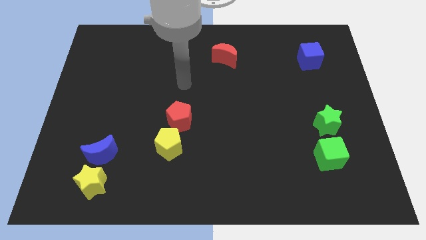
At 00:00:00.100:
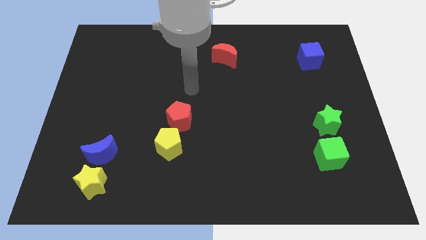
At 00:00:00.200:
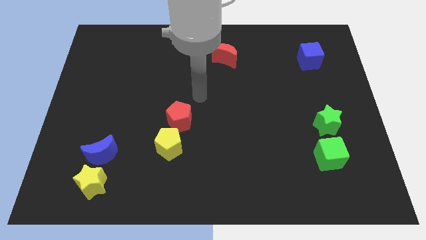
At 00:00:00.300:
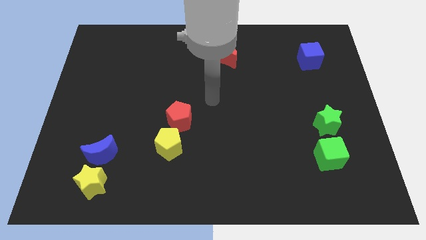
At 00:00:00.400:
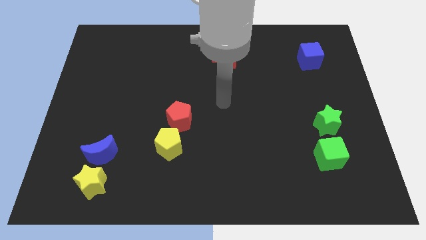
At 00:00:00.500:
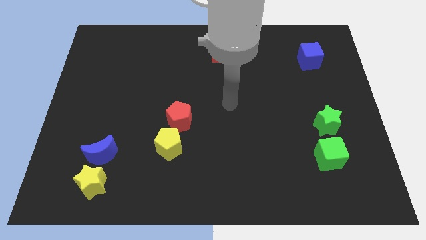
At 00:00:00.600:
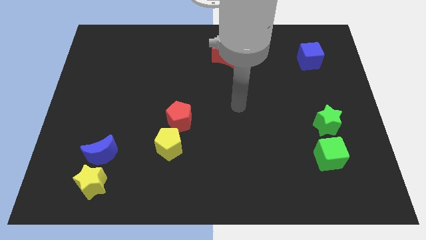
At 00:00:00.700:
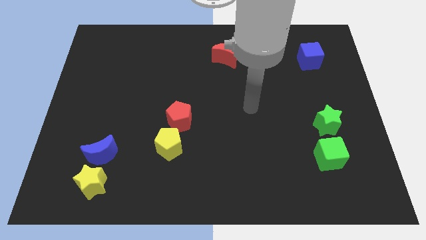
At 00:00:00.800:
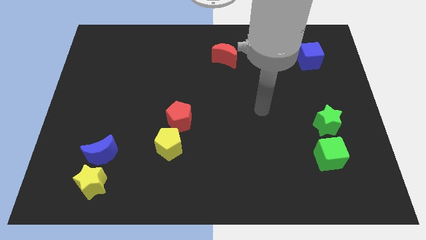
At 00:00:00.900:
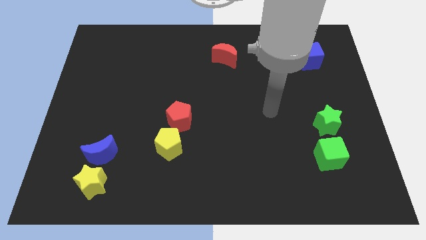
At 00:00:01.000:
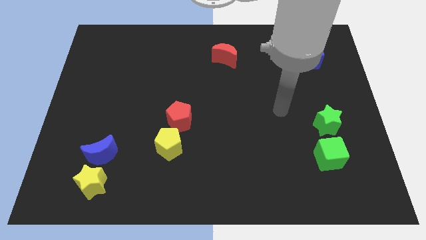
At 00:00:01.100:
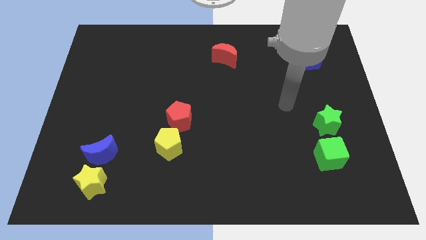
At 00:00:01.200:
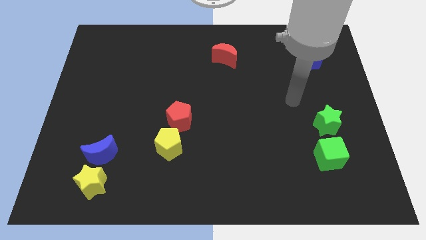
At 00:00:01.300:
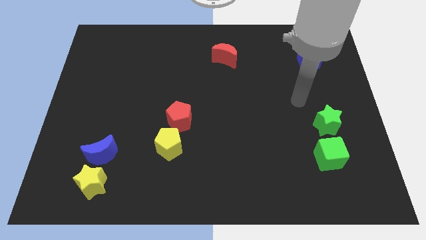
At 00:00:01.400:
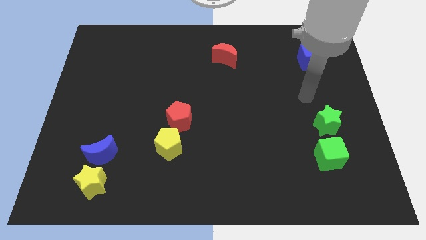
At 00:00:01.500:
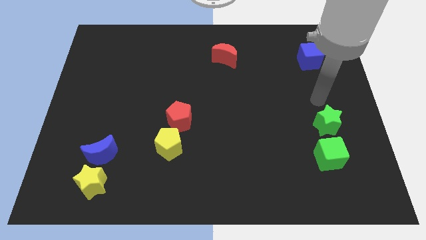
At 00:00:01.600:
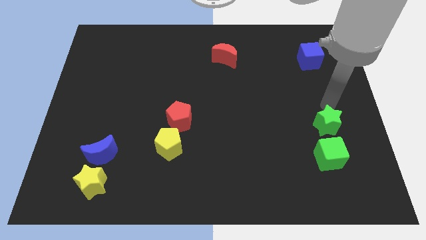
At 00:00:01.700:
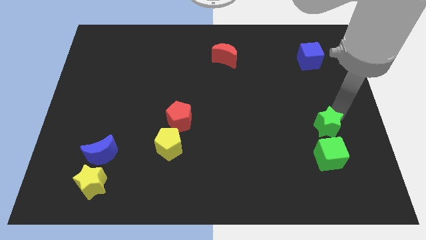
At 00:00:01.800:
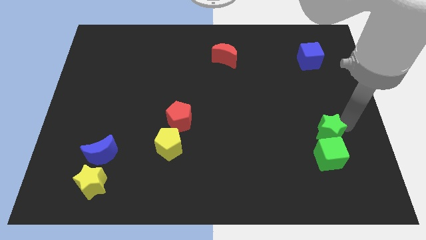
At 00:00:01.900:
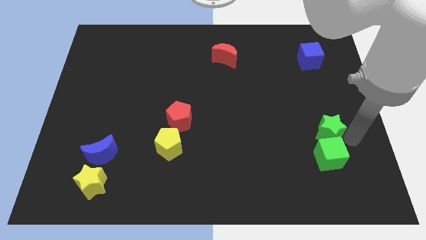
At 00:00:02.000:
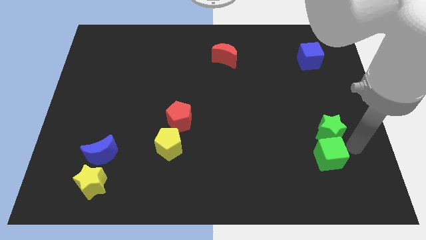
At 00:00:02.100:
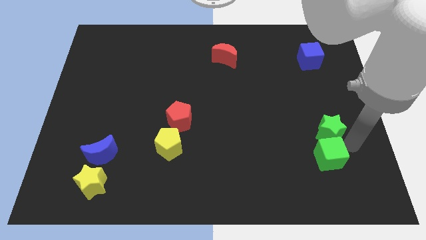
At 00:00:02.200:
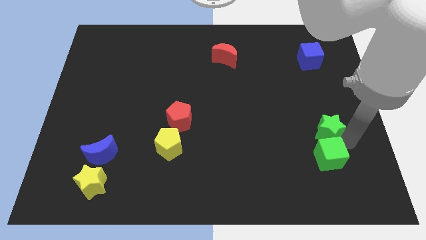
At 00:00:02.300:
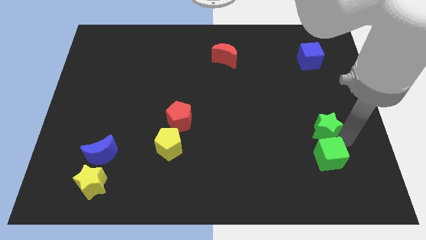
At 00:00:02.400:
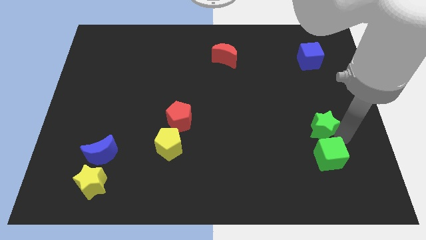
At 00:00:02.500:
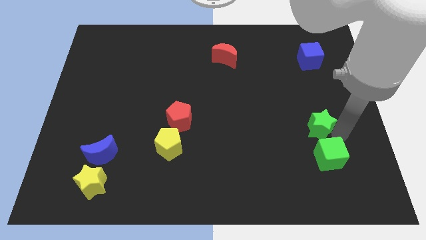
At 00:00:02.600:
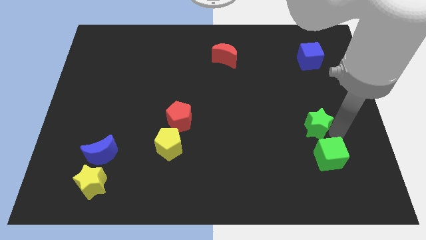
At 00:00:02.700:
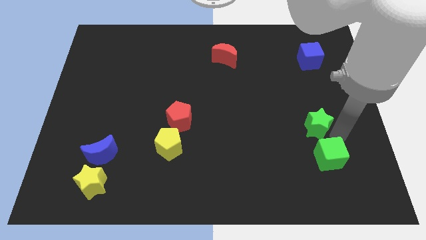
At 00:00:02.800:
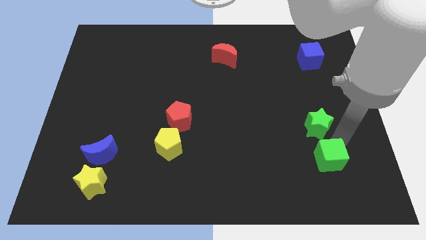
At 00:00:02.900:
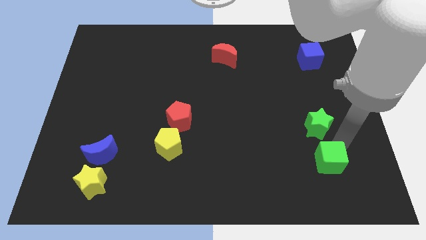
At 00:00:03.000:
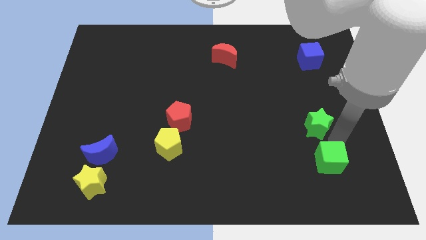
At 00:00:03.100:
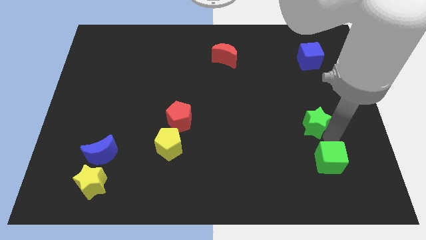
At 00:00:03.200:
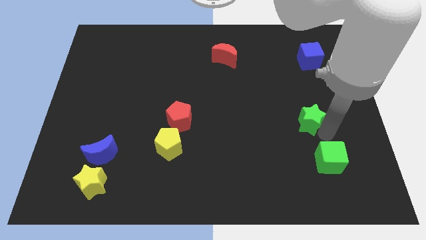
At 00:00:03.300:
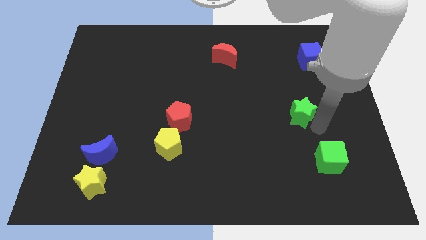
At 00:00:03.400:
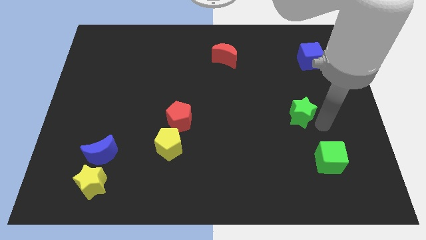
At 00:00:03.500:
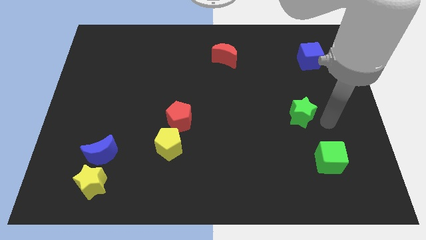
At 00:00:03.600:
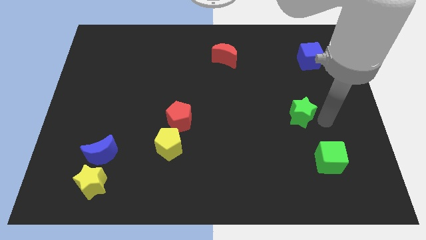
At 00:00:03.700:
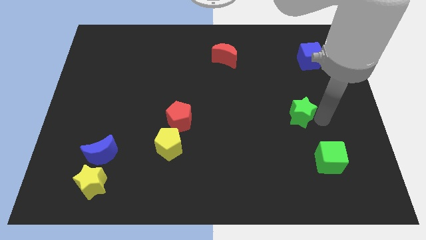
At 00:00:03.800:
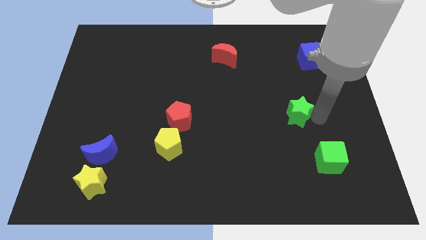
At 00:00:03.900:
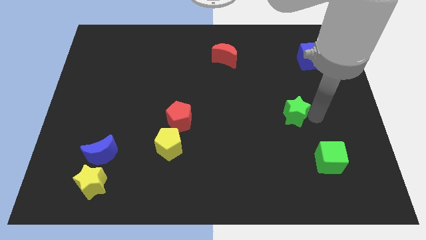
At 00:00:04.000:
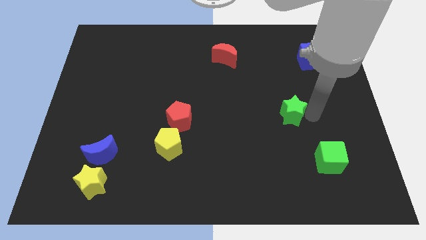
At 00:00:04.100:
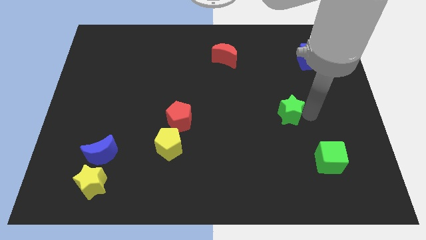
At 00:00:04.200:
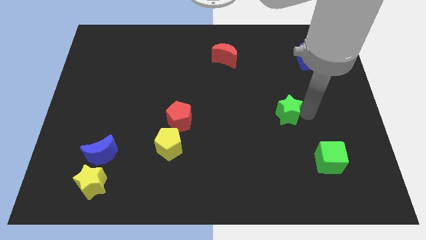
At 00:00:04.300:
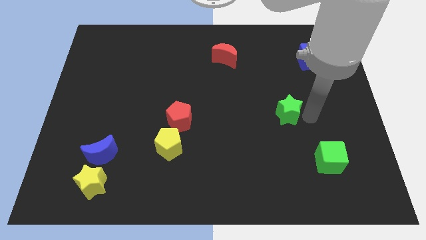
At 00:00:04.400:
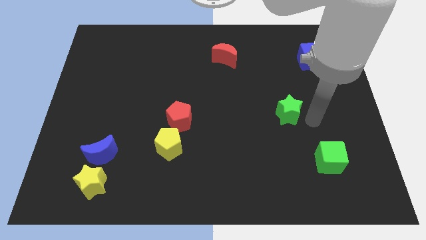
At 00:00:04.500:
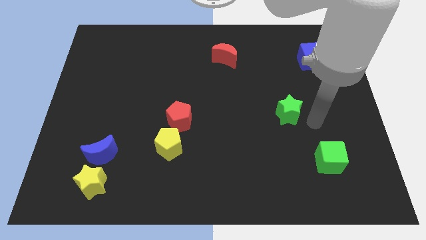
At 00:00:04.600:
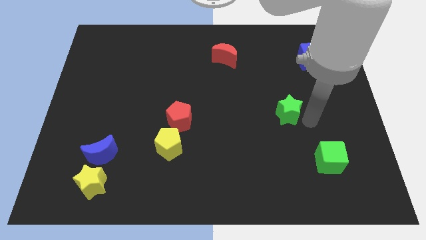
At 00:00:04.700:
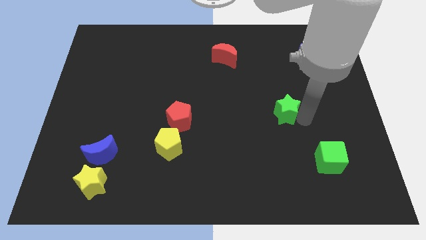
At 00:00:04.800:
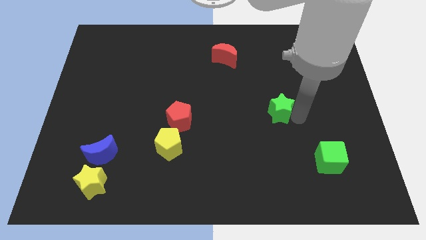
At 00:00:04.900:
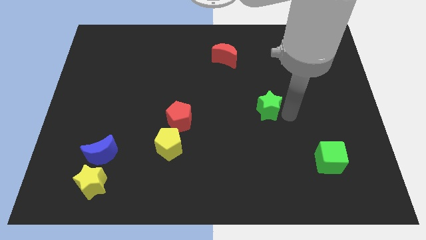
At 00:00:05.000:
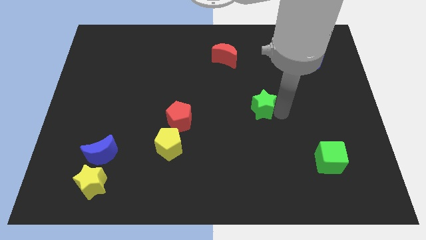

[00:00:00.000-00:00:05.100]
put the green star to the center

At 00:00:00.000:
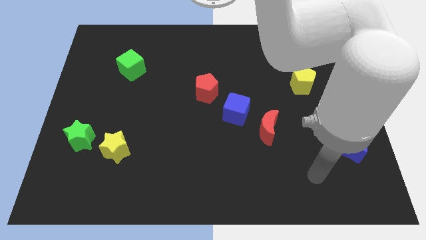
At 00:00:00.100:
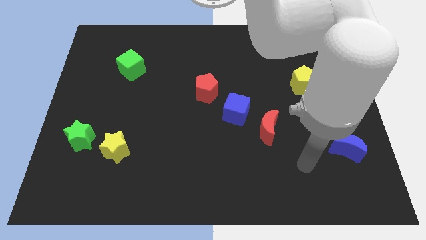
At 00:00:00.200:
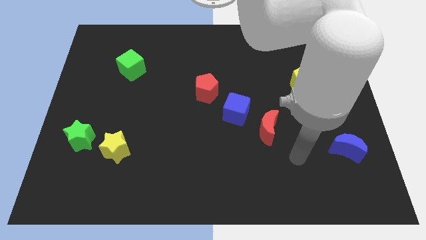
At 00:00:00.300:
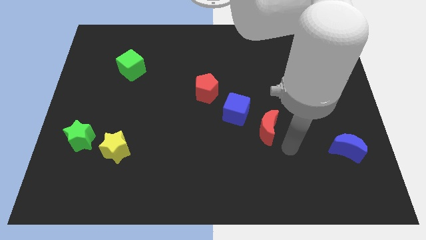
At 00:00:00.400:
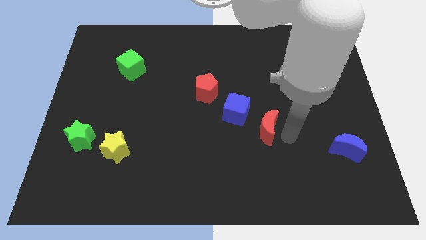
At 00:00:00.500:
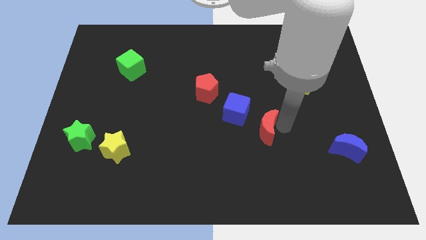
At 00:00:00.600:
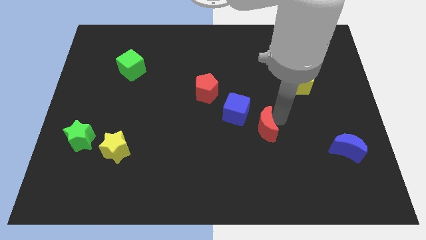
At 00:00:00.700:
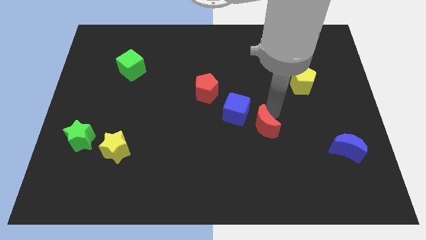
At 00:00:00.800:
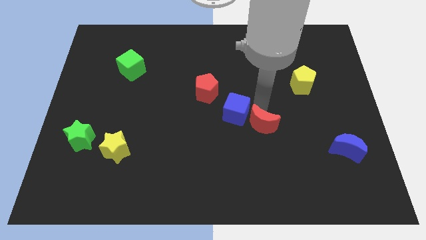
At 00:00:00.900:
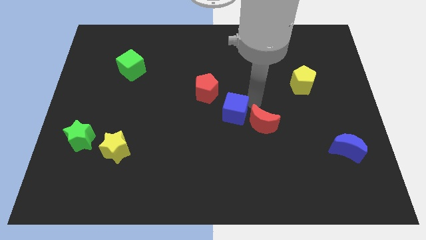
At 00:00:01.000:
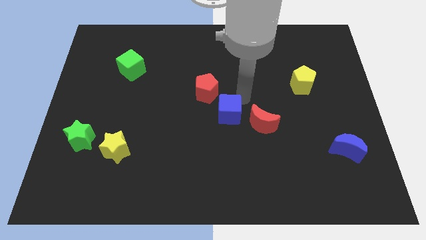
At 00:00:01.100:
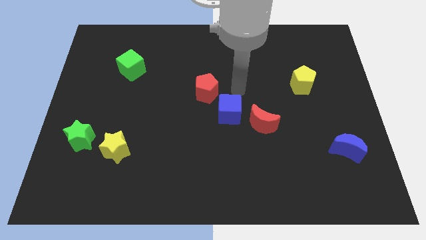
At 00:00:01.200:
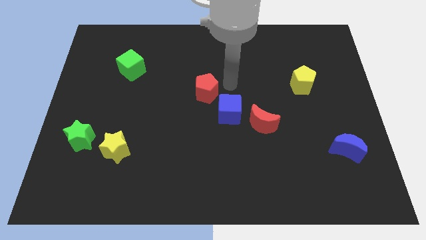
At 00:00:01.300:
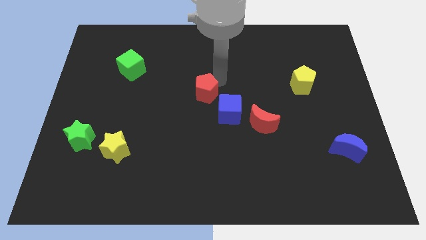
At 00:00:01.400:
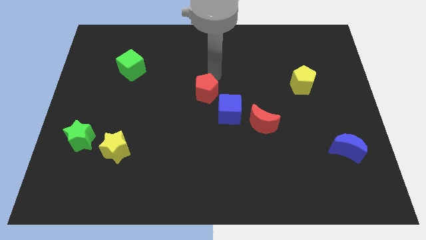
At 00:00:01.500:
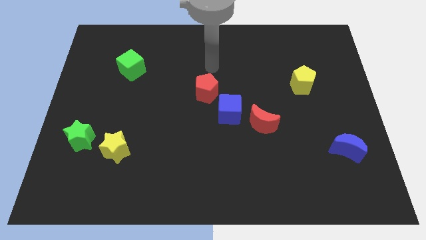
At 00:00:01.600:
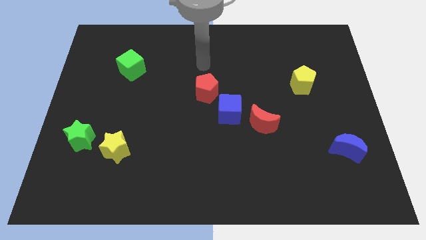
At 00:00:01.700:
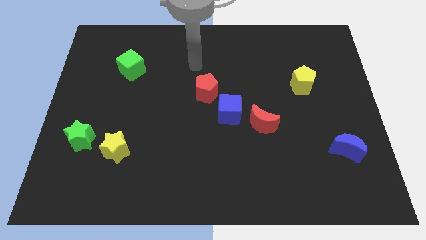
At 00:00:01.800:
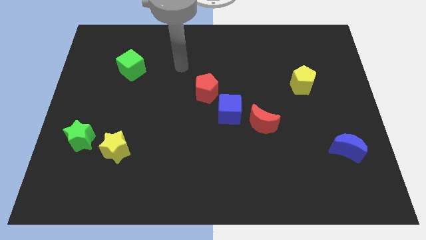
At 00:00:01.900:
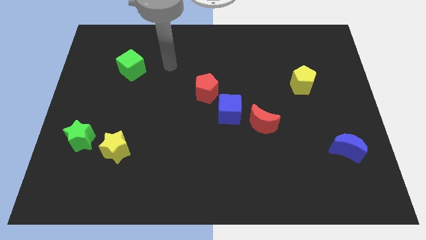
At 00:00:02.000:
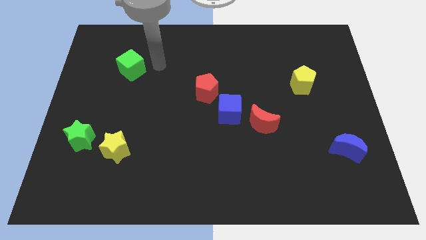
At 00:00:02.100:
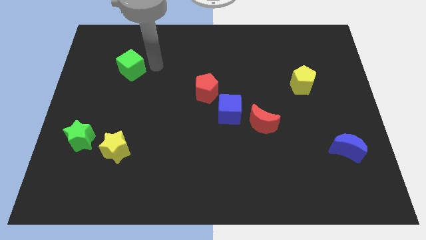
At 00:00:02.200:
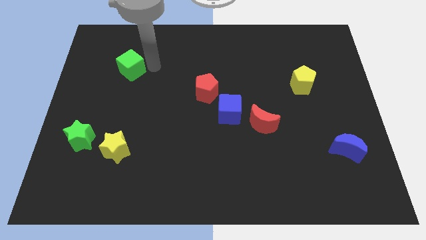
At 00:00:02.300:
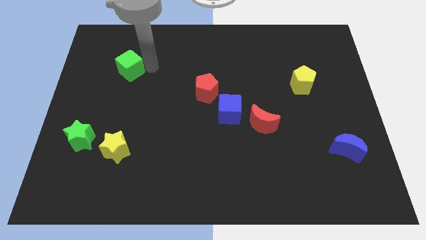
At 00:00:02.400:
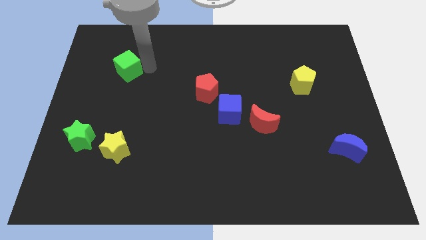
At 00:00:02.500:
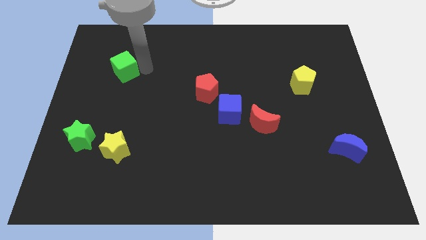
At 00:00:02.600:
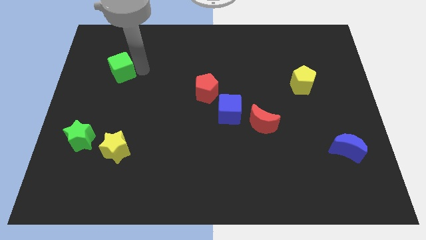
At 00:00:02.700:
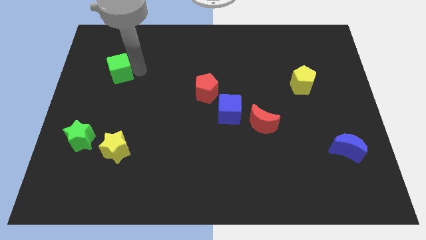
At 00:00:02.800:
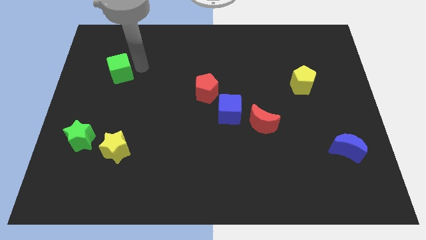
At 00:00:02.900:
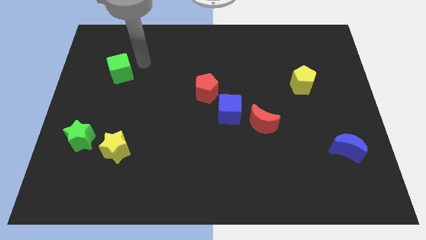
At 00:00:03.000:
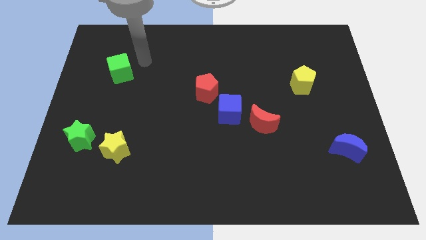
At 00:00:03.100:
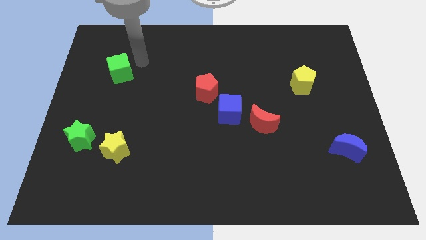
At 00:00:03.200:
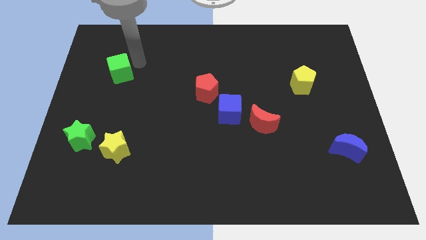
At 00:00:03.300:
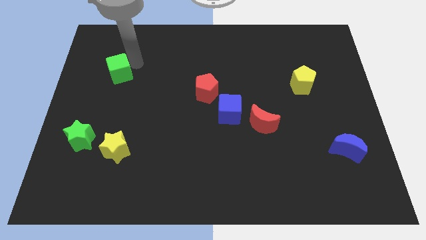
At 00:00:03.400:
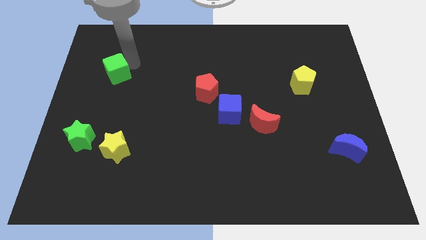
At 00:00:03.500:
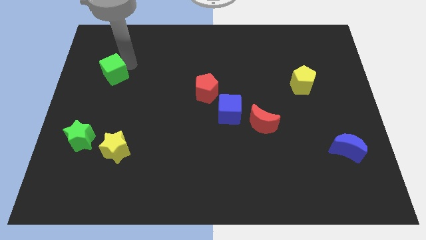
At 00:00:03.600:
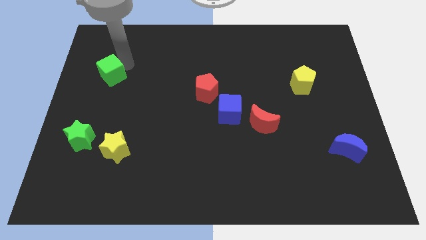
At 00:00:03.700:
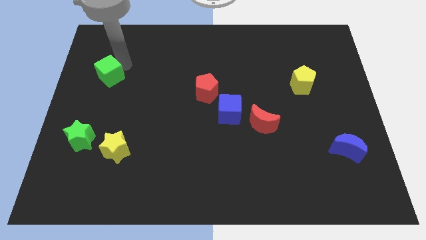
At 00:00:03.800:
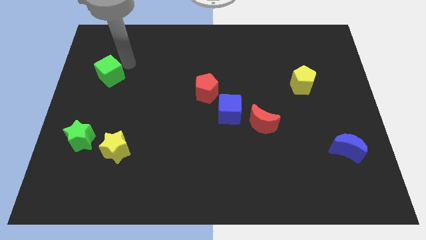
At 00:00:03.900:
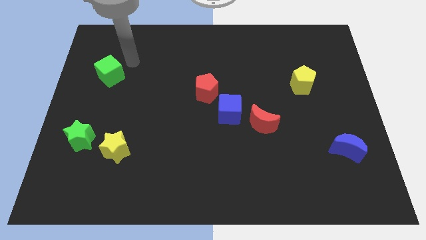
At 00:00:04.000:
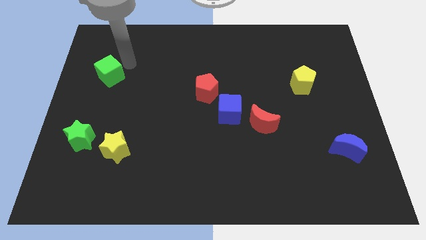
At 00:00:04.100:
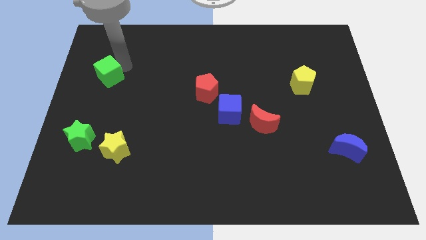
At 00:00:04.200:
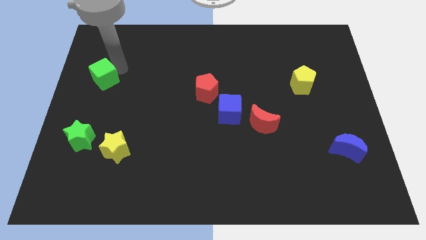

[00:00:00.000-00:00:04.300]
move the green cube to the left side
